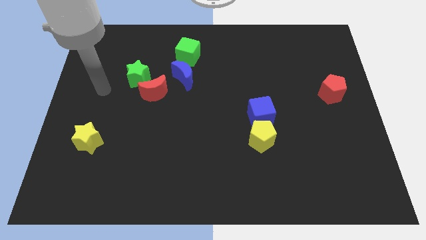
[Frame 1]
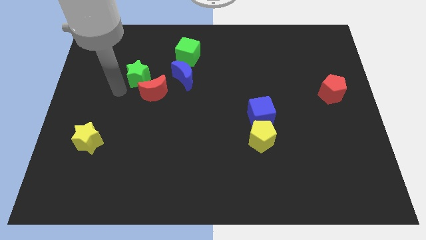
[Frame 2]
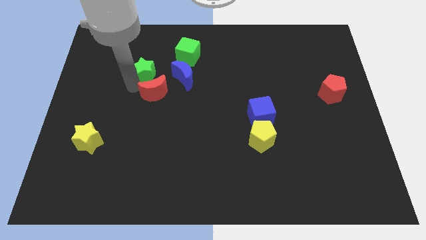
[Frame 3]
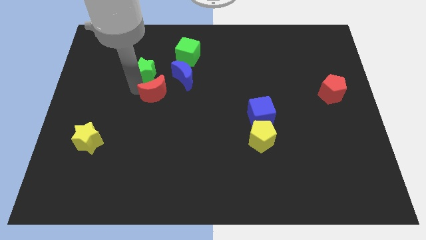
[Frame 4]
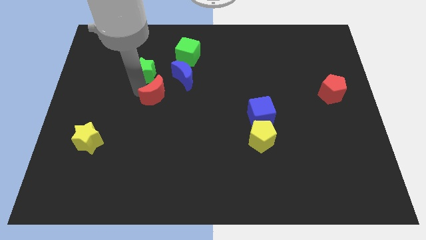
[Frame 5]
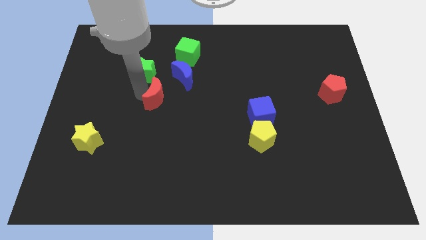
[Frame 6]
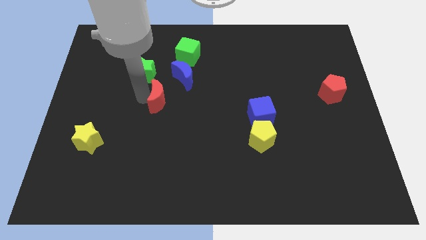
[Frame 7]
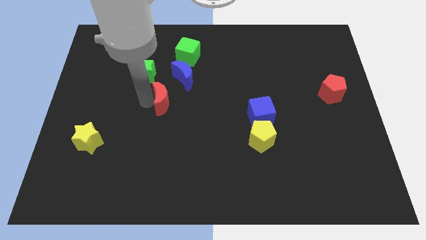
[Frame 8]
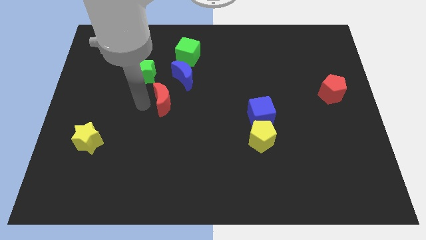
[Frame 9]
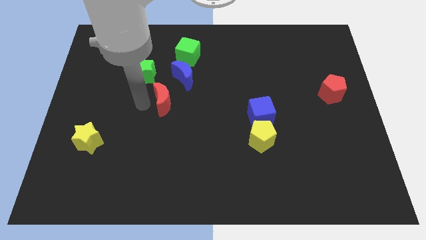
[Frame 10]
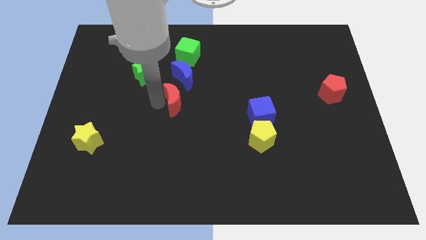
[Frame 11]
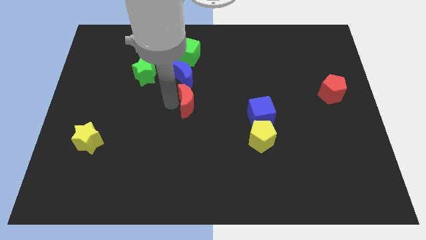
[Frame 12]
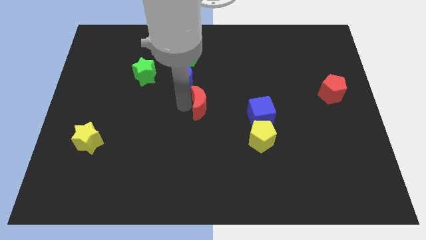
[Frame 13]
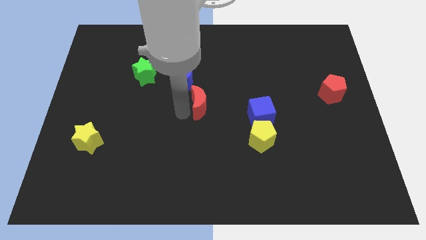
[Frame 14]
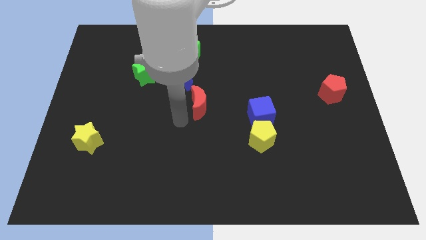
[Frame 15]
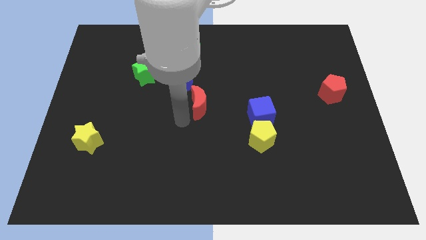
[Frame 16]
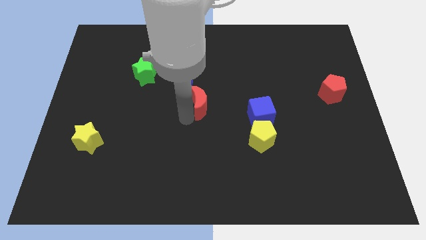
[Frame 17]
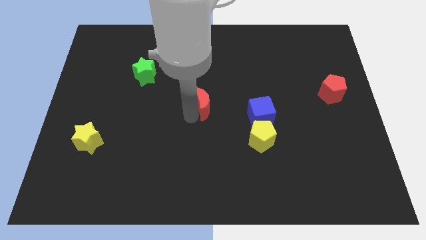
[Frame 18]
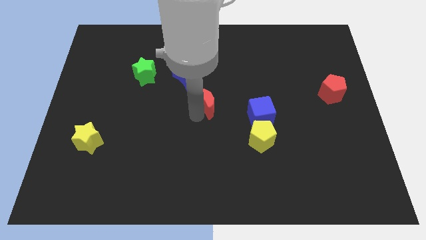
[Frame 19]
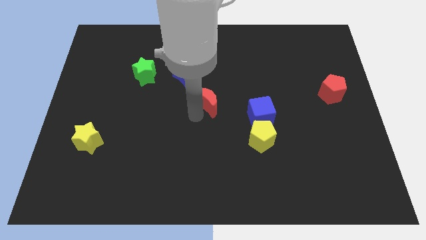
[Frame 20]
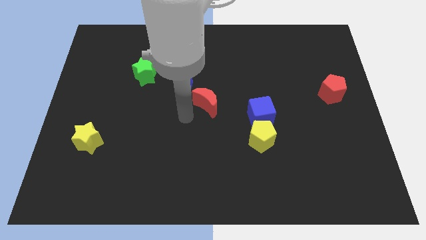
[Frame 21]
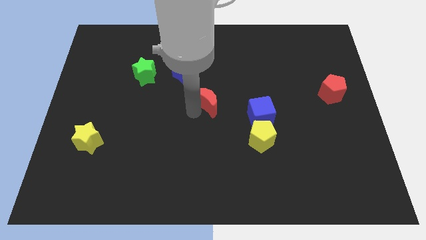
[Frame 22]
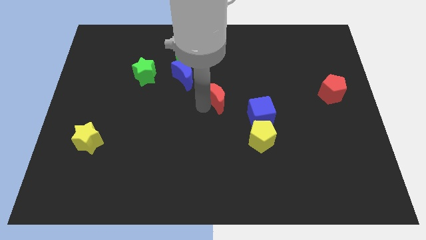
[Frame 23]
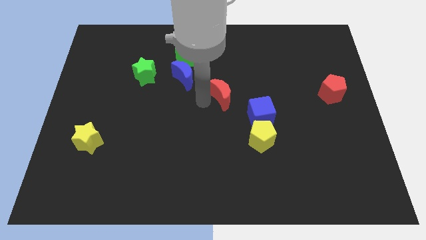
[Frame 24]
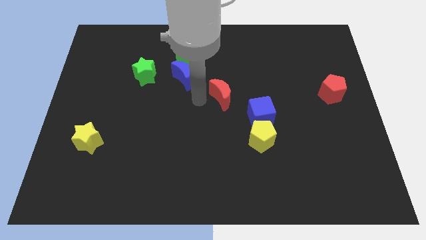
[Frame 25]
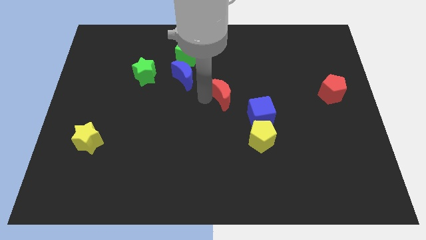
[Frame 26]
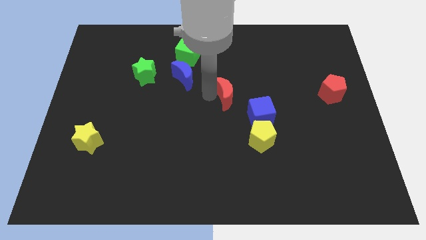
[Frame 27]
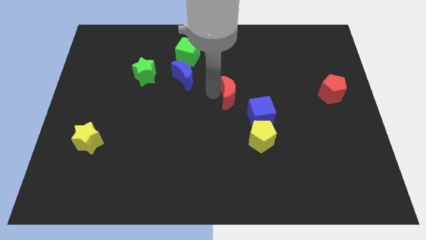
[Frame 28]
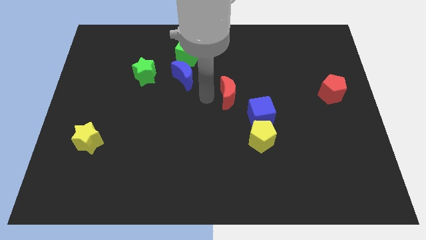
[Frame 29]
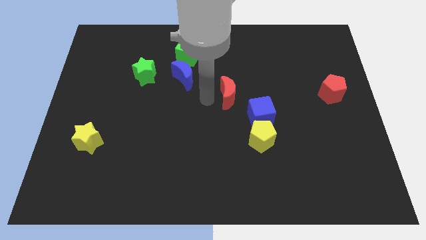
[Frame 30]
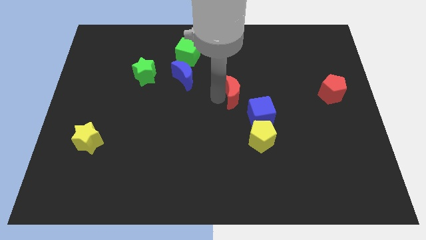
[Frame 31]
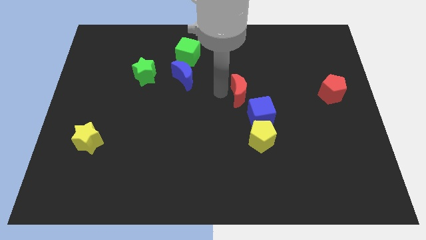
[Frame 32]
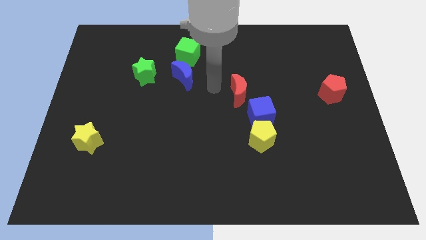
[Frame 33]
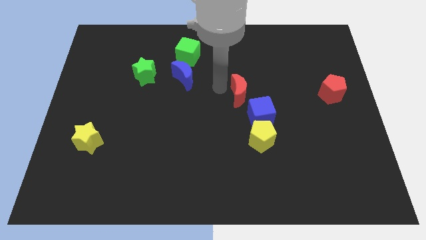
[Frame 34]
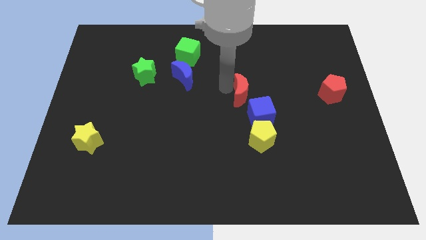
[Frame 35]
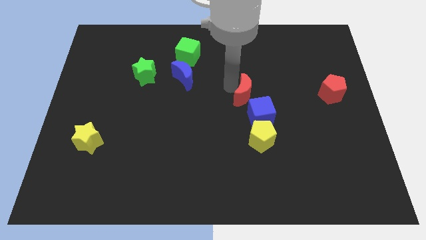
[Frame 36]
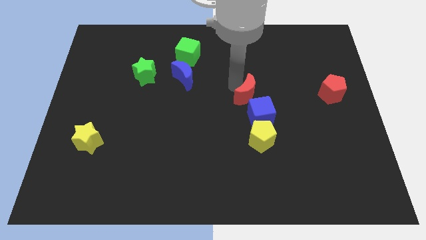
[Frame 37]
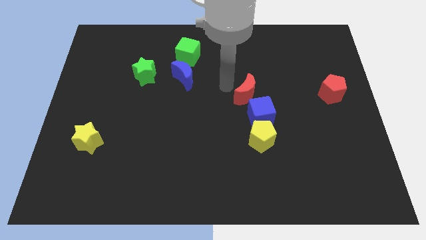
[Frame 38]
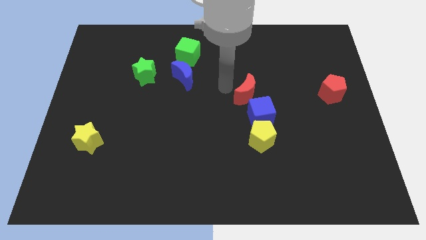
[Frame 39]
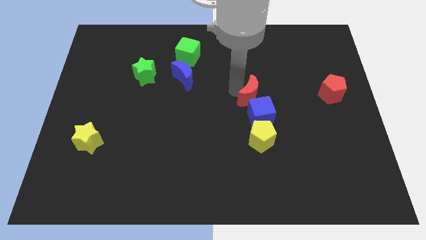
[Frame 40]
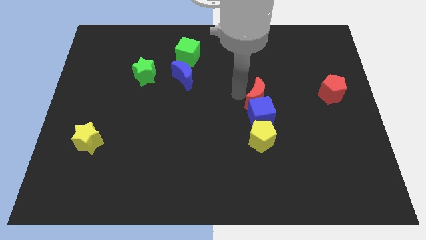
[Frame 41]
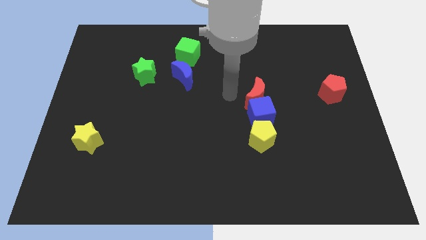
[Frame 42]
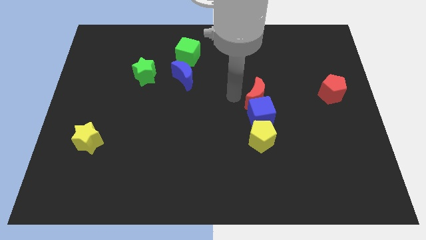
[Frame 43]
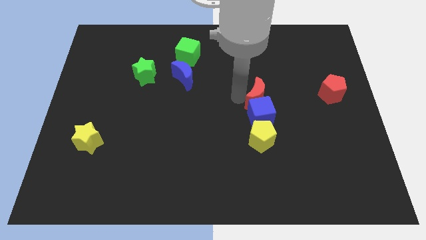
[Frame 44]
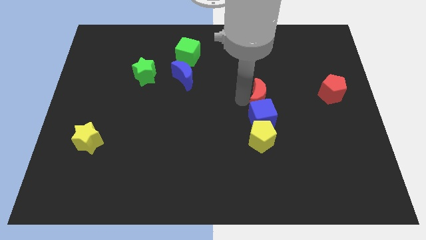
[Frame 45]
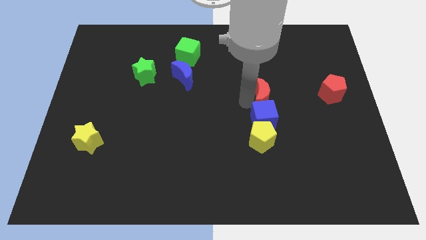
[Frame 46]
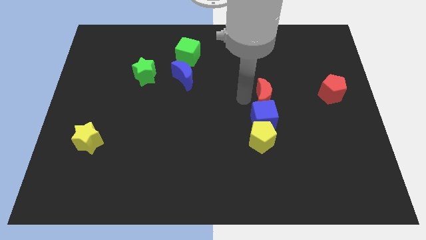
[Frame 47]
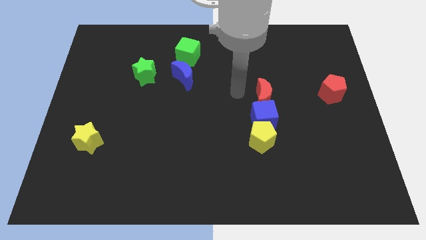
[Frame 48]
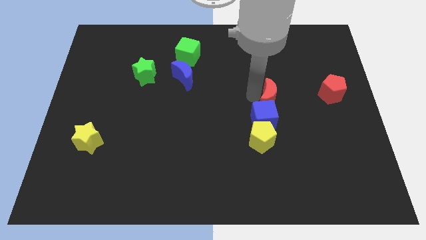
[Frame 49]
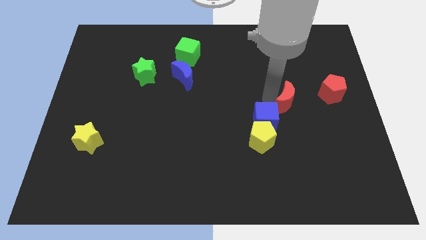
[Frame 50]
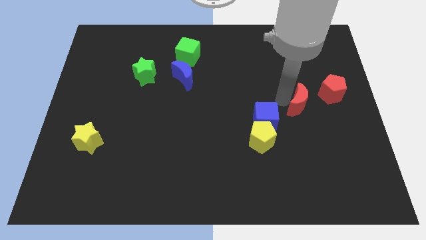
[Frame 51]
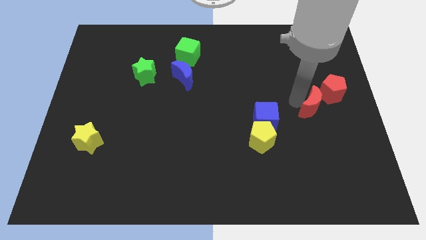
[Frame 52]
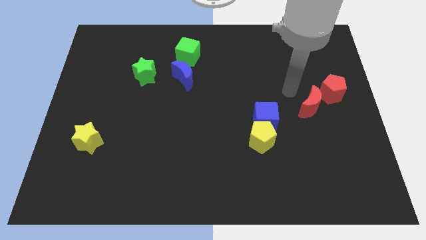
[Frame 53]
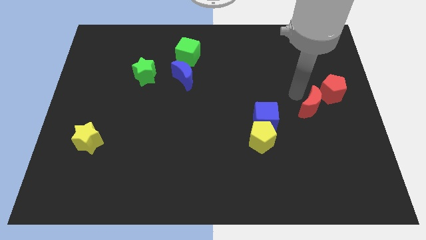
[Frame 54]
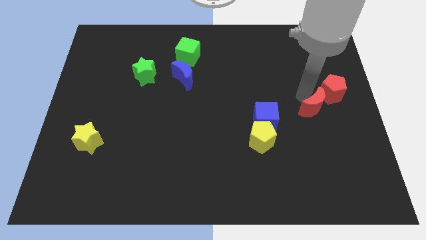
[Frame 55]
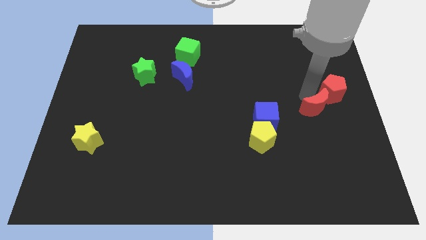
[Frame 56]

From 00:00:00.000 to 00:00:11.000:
push the red moon to the bottom of the red pentagon

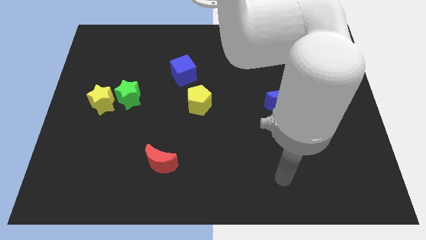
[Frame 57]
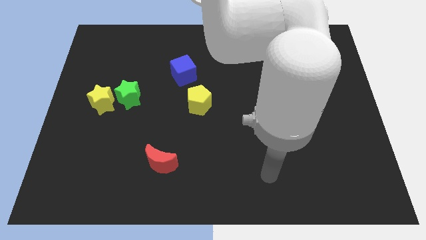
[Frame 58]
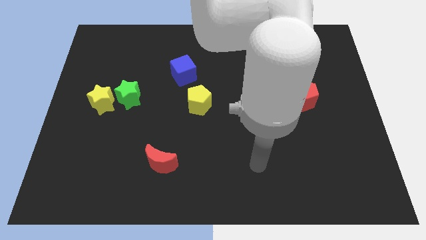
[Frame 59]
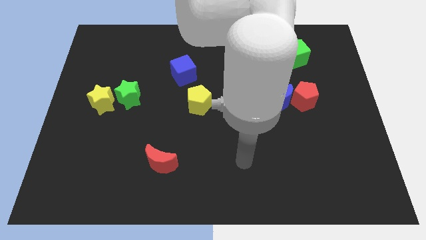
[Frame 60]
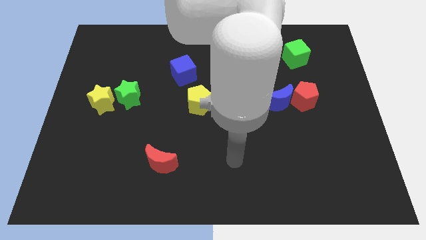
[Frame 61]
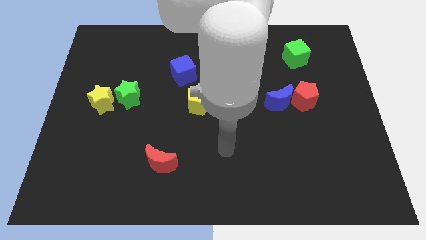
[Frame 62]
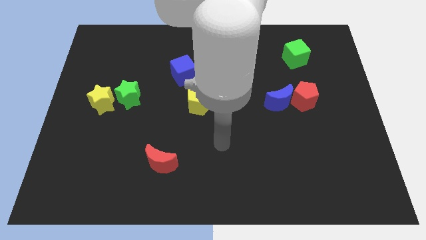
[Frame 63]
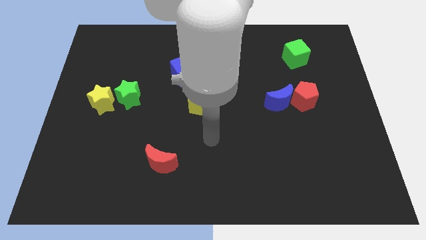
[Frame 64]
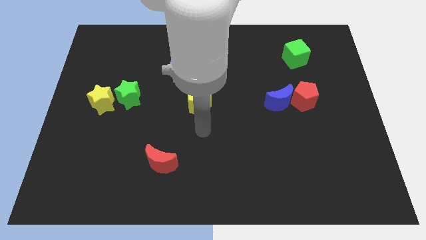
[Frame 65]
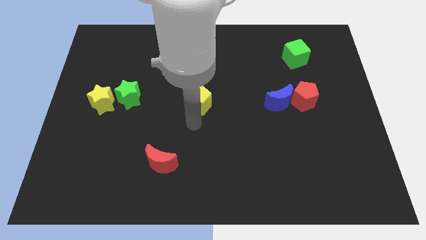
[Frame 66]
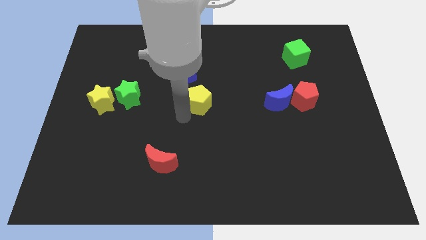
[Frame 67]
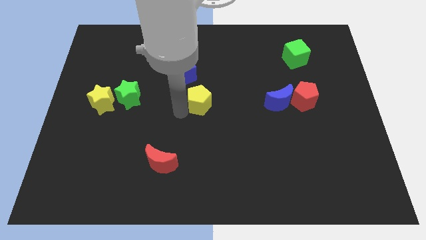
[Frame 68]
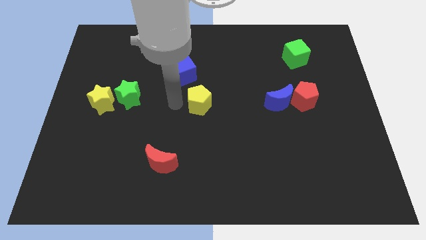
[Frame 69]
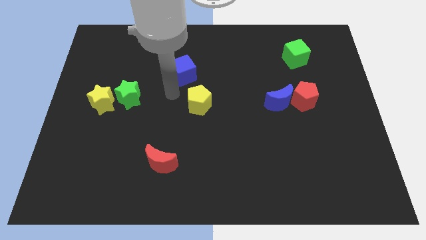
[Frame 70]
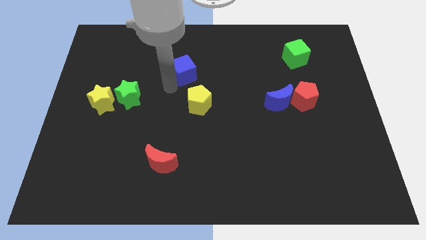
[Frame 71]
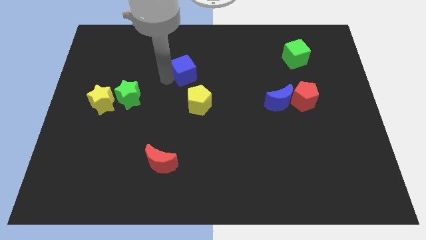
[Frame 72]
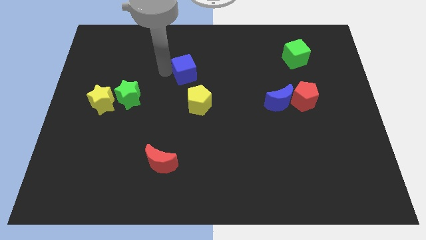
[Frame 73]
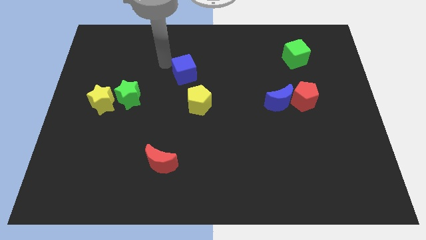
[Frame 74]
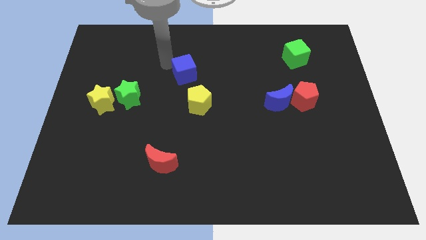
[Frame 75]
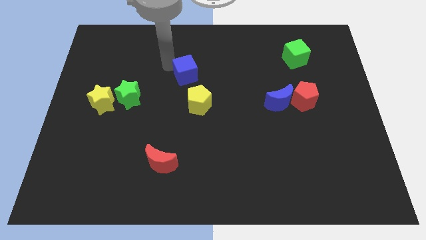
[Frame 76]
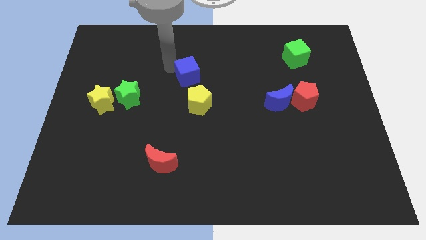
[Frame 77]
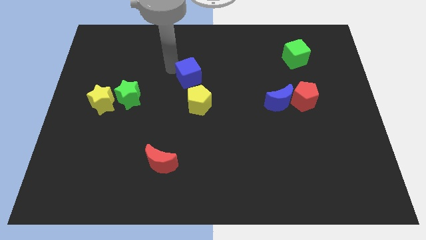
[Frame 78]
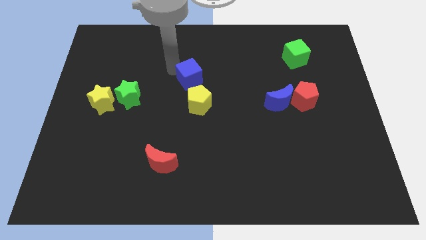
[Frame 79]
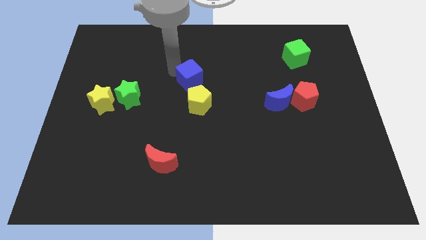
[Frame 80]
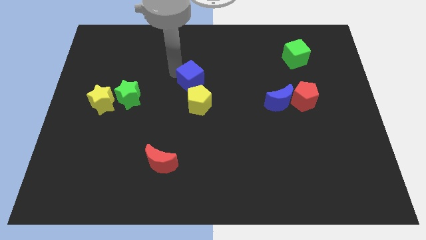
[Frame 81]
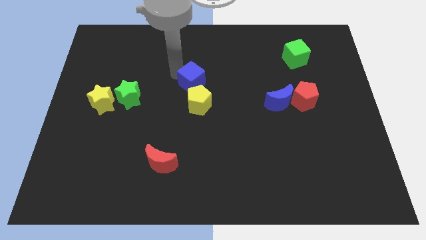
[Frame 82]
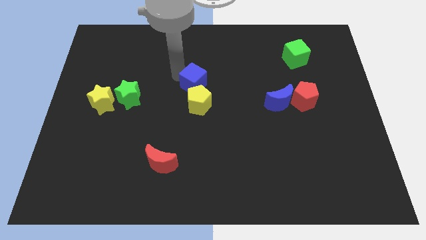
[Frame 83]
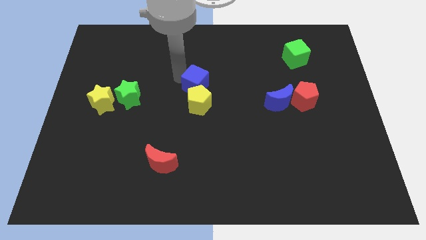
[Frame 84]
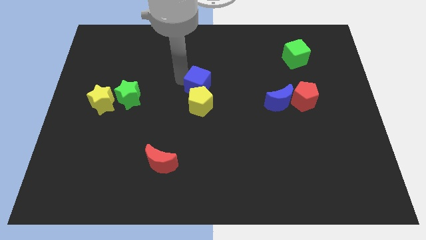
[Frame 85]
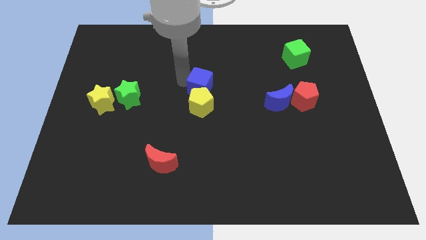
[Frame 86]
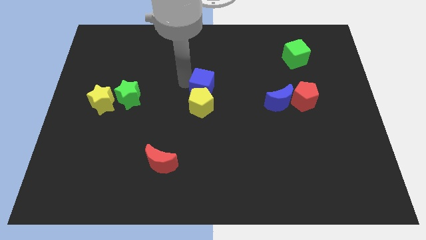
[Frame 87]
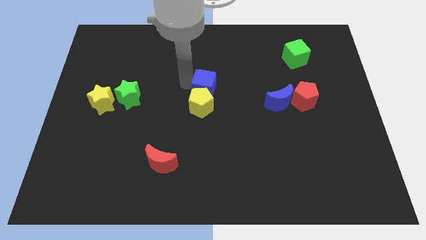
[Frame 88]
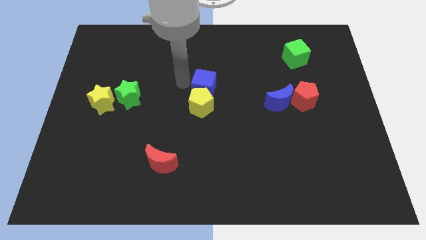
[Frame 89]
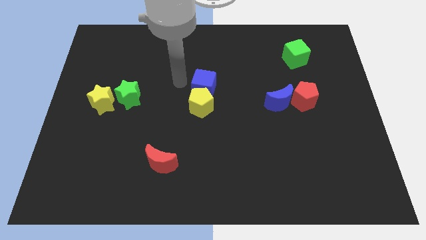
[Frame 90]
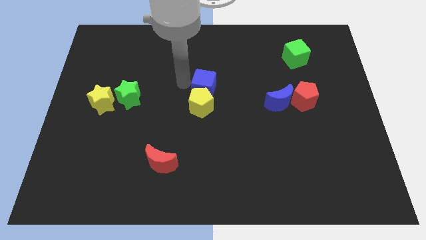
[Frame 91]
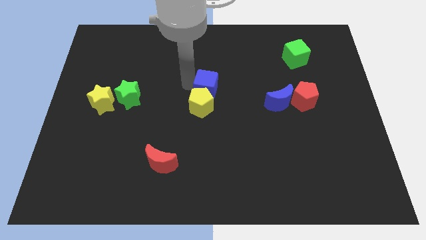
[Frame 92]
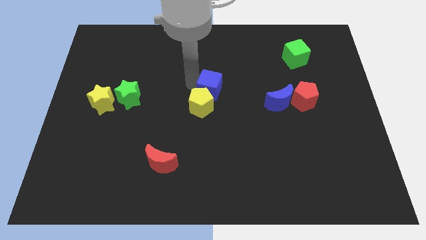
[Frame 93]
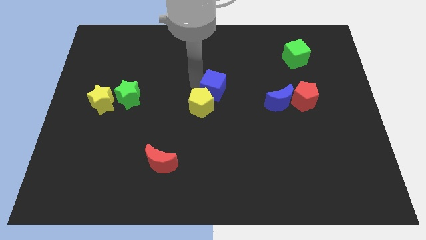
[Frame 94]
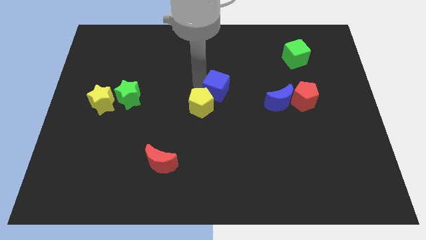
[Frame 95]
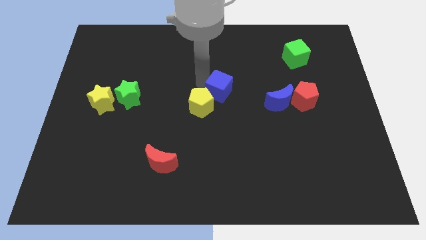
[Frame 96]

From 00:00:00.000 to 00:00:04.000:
put the blue cube just left of the blue moon
